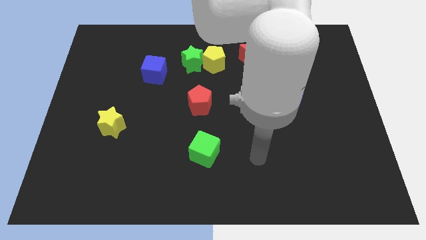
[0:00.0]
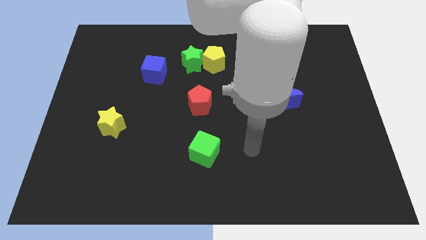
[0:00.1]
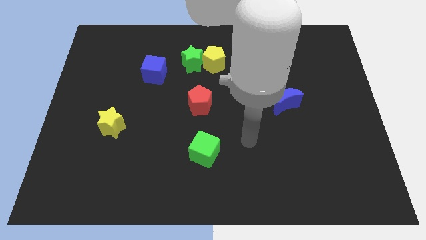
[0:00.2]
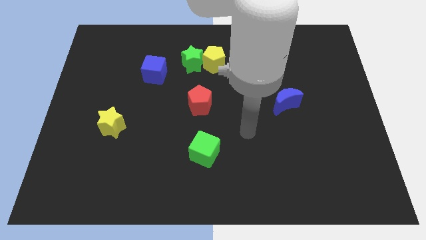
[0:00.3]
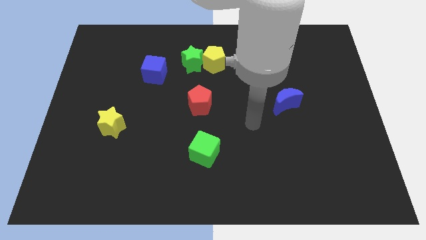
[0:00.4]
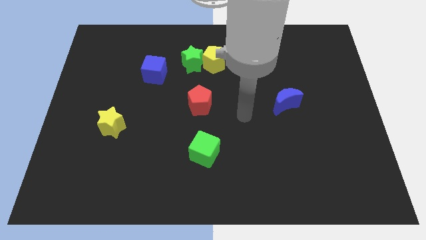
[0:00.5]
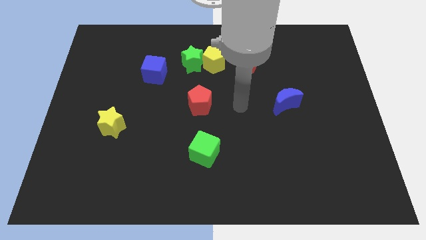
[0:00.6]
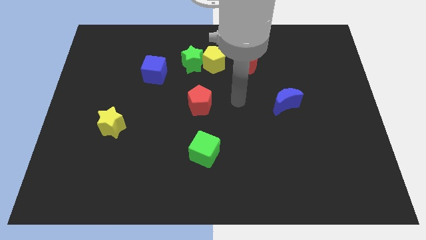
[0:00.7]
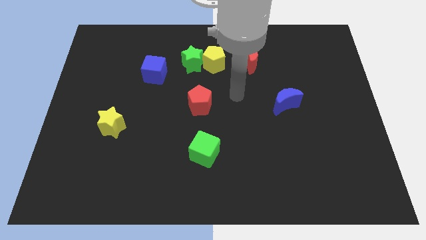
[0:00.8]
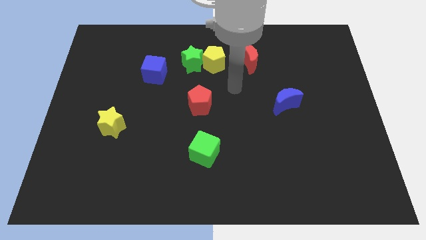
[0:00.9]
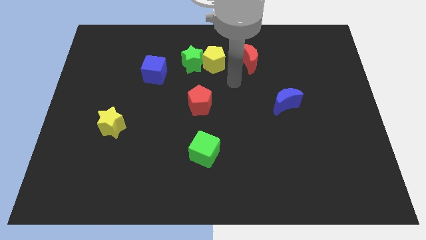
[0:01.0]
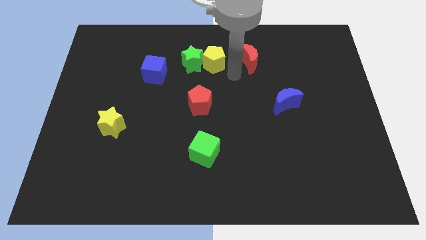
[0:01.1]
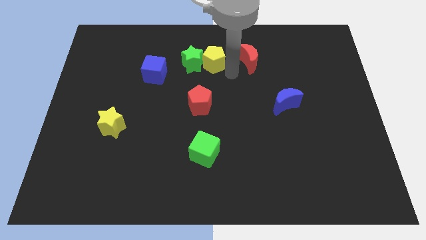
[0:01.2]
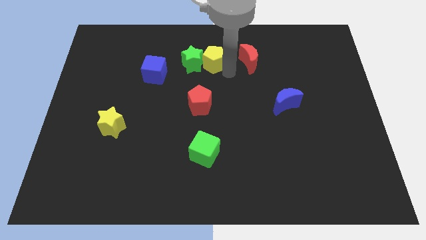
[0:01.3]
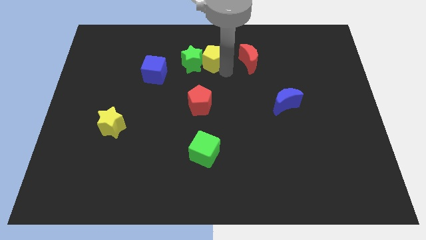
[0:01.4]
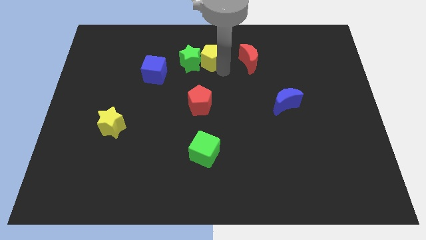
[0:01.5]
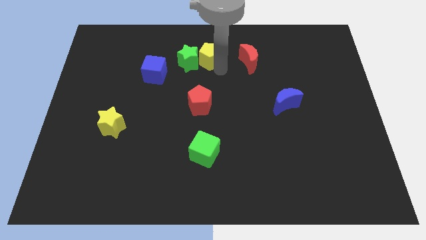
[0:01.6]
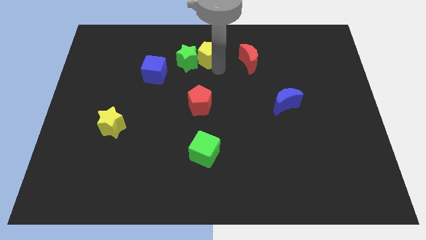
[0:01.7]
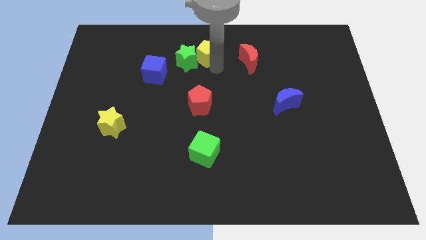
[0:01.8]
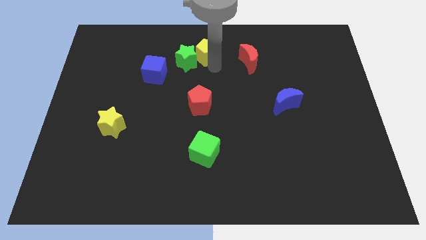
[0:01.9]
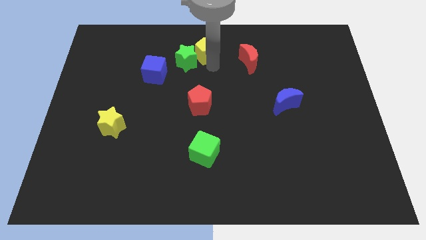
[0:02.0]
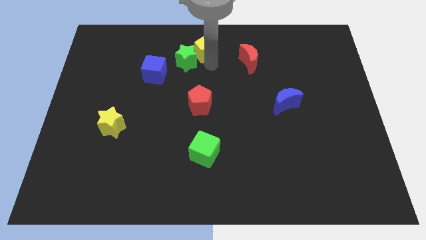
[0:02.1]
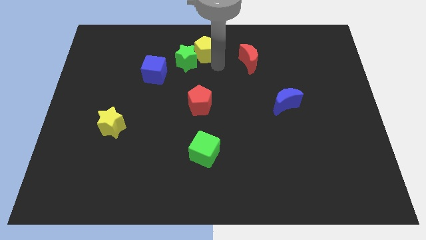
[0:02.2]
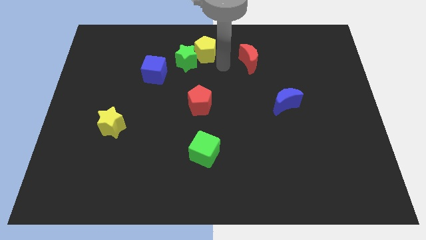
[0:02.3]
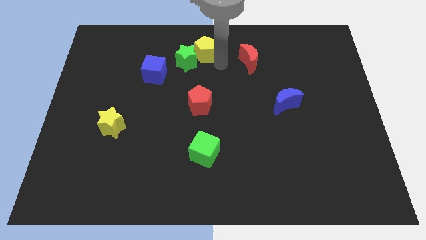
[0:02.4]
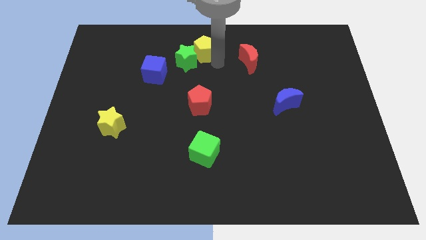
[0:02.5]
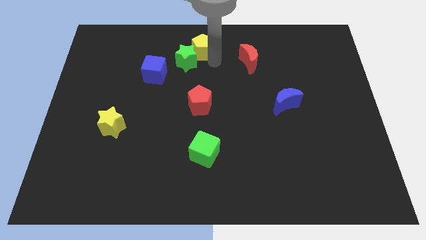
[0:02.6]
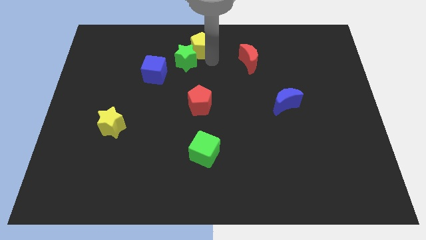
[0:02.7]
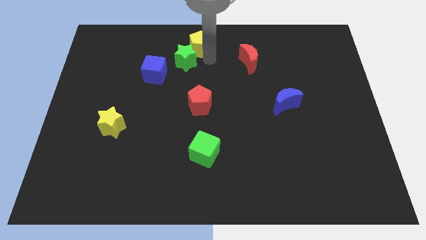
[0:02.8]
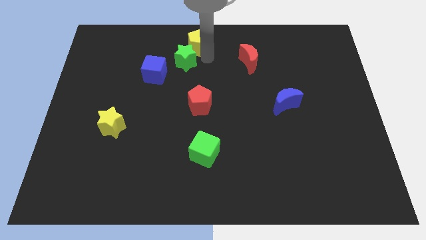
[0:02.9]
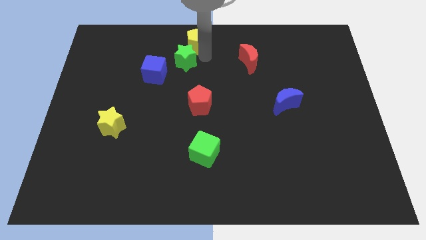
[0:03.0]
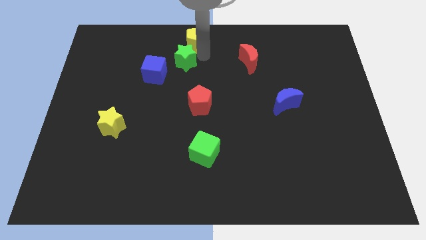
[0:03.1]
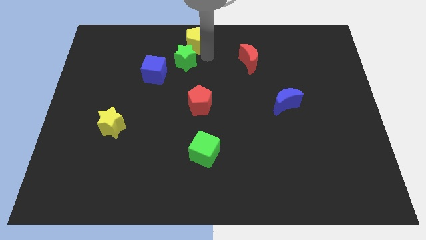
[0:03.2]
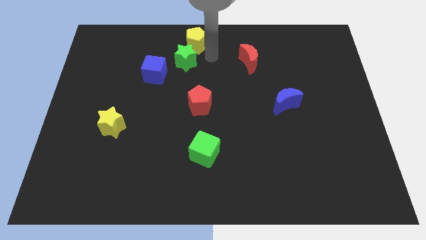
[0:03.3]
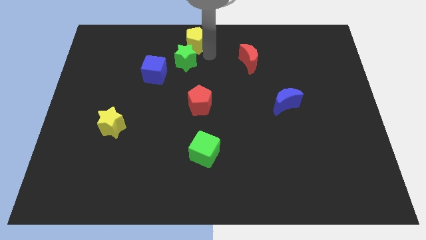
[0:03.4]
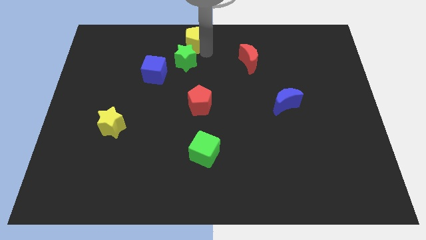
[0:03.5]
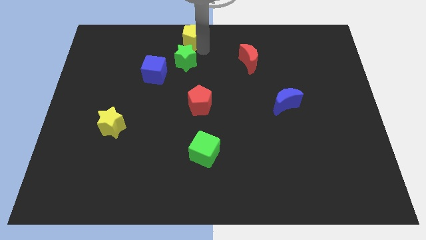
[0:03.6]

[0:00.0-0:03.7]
pull the yellow pentagon apart from the green star and red moon

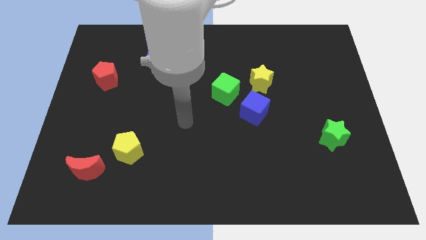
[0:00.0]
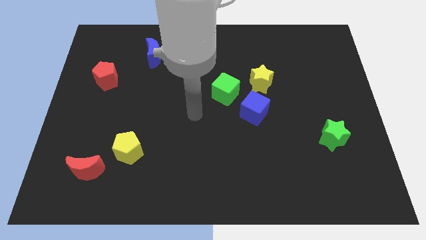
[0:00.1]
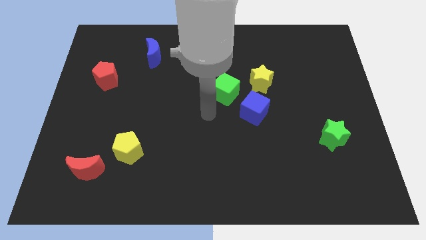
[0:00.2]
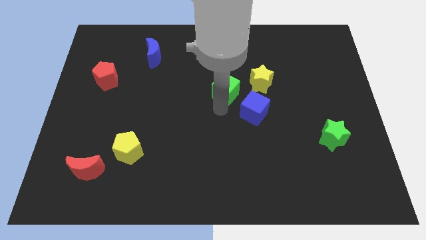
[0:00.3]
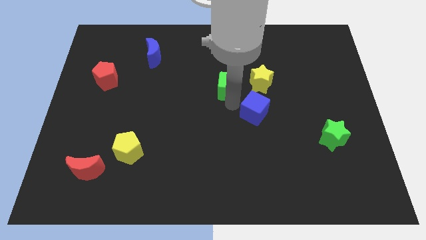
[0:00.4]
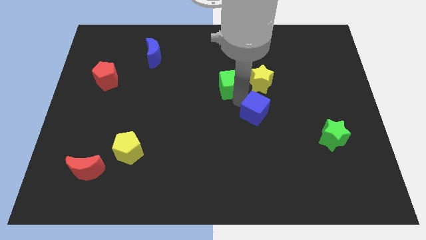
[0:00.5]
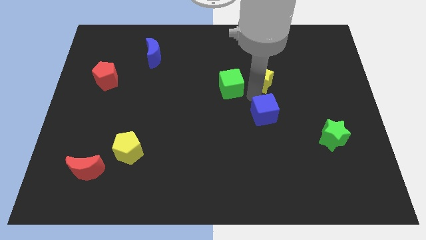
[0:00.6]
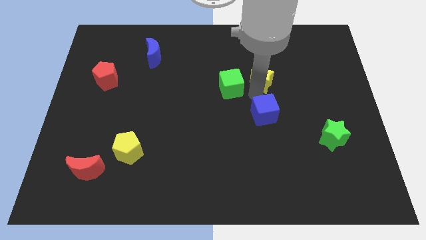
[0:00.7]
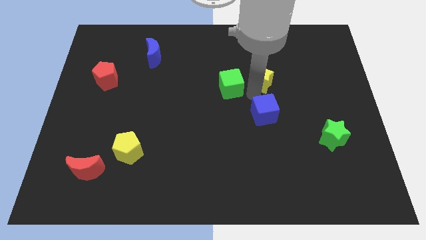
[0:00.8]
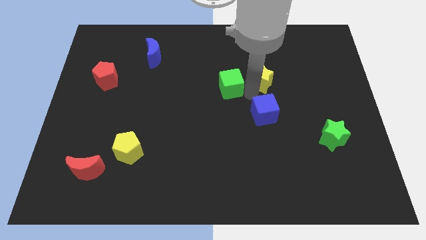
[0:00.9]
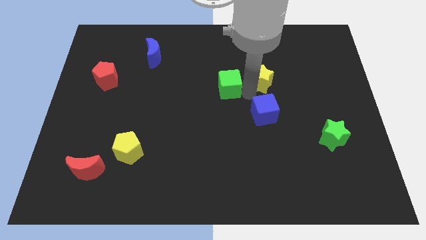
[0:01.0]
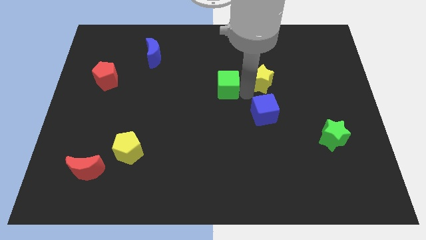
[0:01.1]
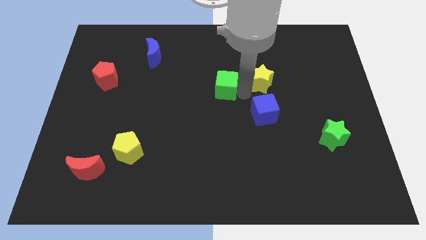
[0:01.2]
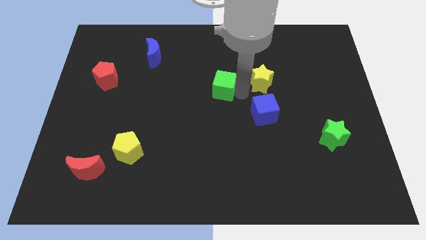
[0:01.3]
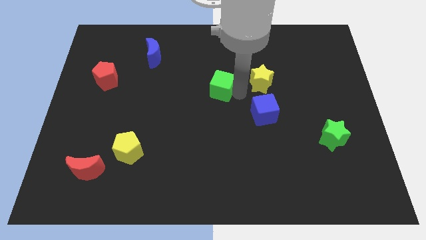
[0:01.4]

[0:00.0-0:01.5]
move the green cube away from the blue cube and yellow star

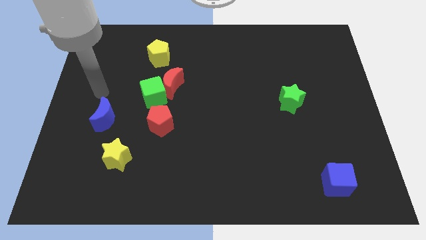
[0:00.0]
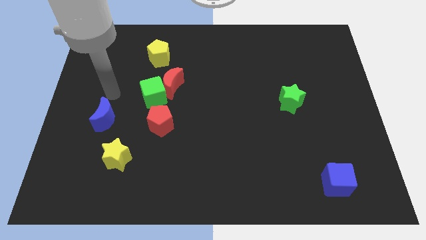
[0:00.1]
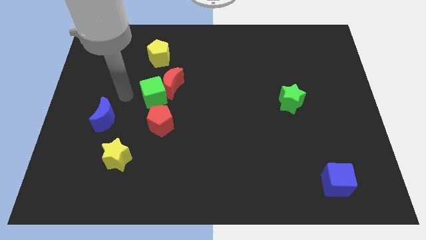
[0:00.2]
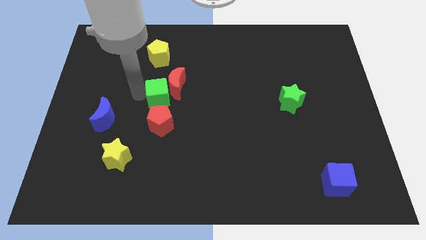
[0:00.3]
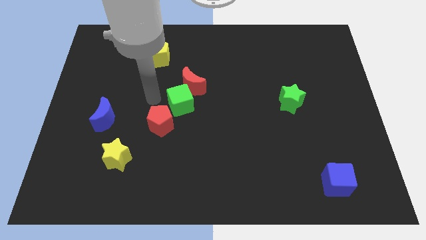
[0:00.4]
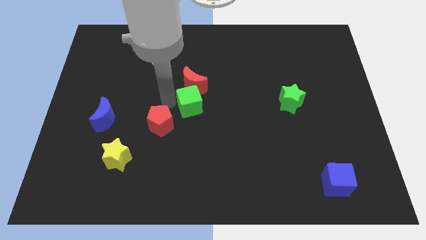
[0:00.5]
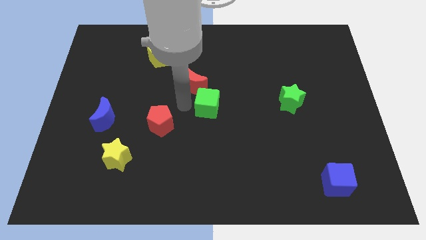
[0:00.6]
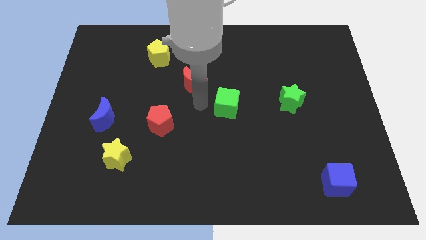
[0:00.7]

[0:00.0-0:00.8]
move the red moon away from the green cube

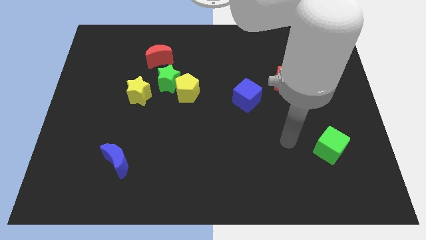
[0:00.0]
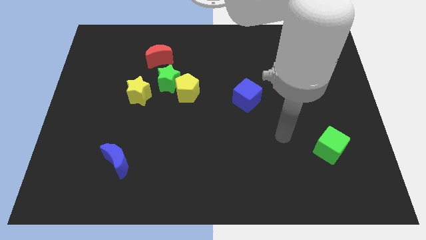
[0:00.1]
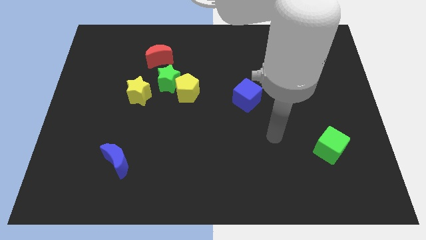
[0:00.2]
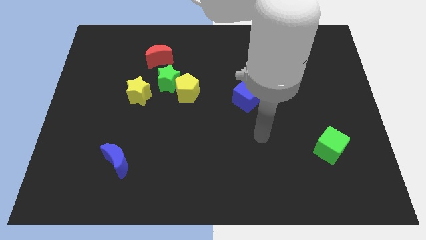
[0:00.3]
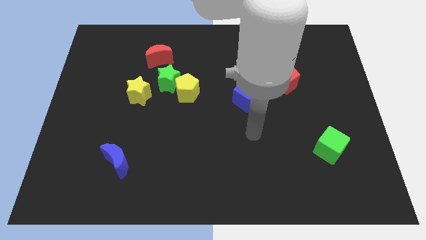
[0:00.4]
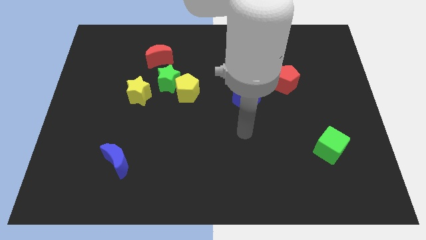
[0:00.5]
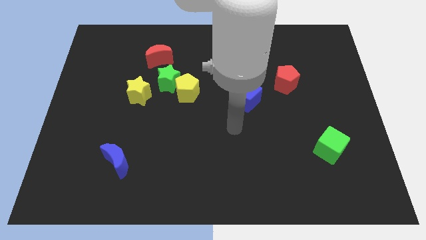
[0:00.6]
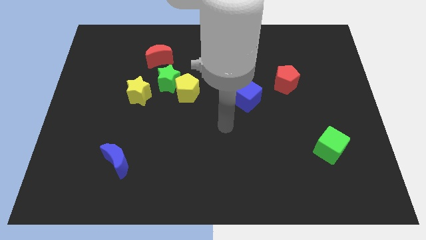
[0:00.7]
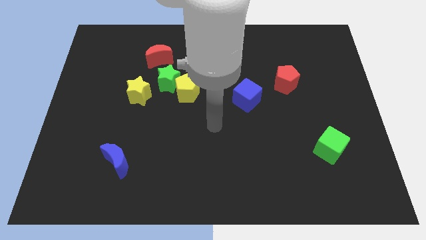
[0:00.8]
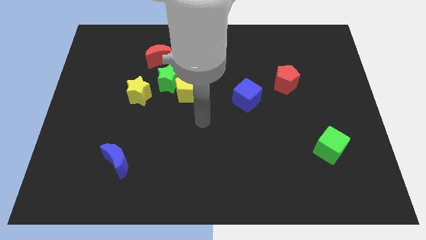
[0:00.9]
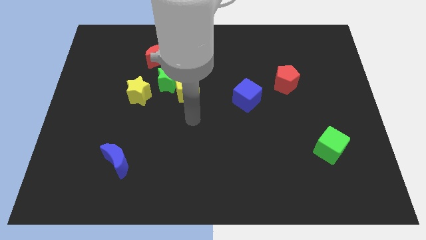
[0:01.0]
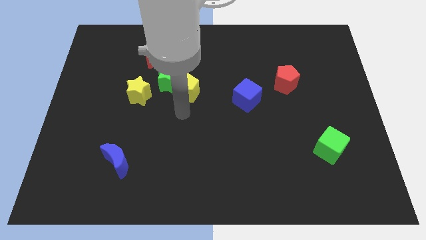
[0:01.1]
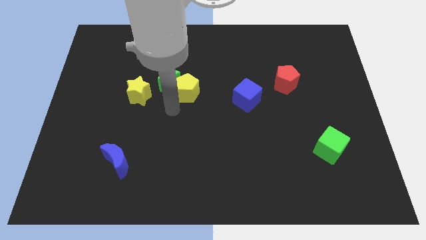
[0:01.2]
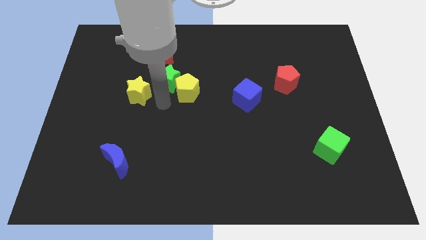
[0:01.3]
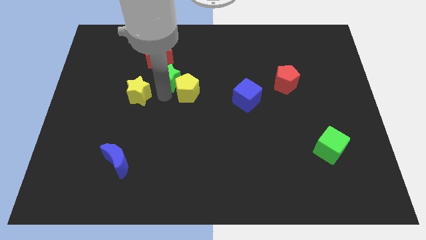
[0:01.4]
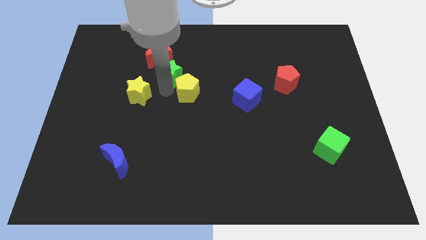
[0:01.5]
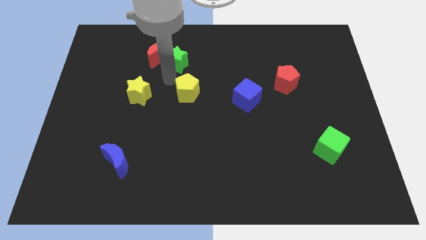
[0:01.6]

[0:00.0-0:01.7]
move the yellow pentagon away from the green star

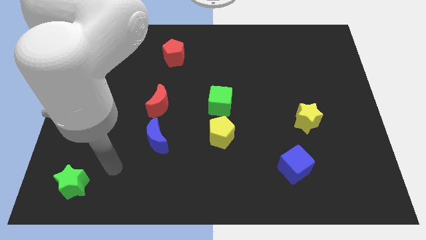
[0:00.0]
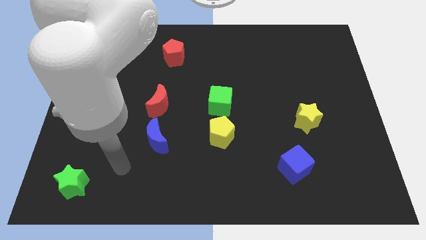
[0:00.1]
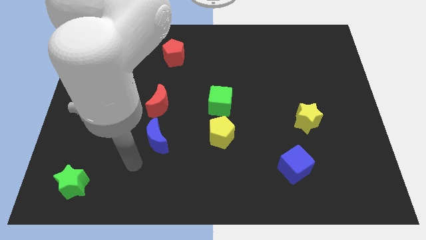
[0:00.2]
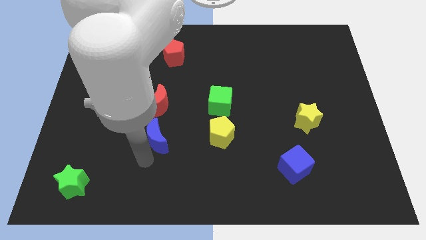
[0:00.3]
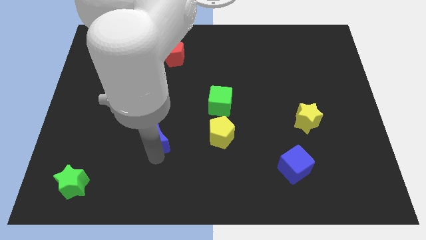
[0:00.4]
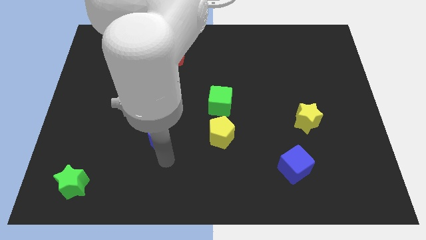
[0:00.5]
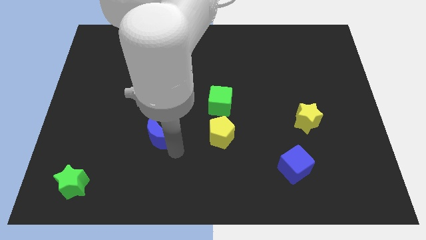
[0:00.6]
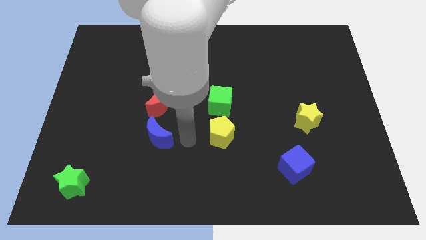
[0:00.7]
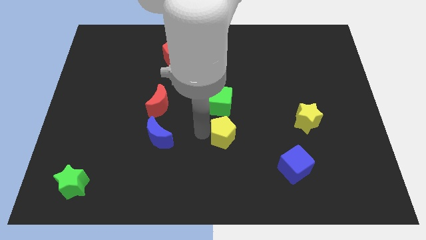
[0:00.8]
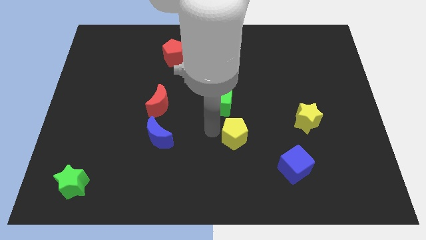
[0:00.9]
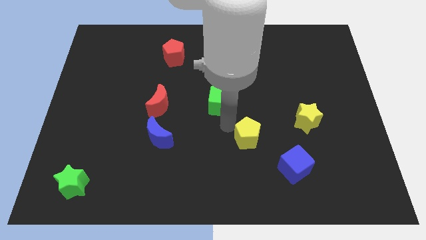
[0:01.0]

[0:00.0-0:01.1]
separate the green cube from the yellow pentagon

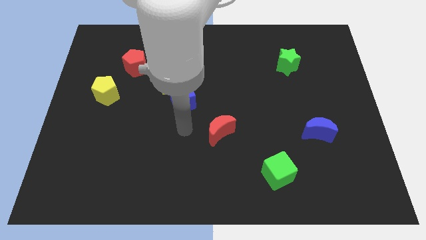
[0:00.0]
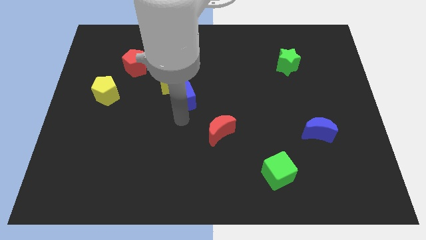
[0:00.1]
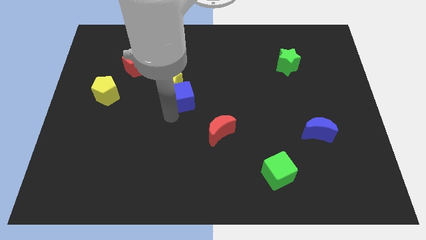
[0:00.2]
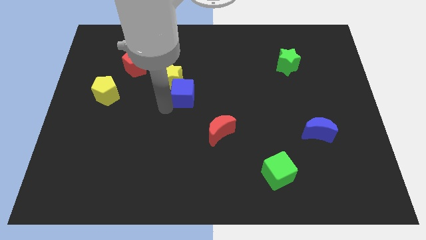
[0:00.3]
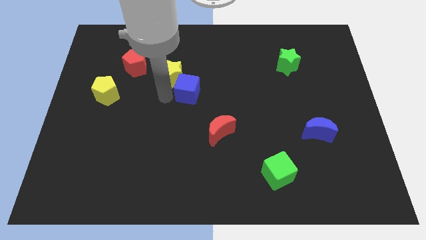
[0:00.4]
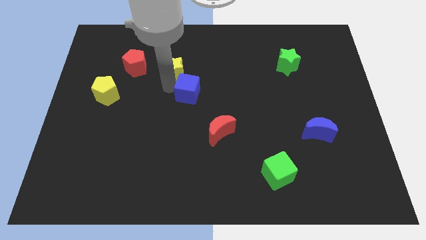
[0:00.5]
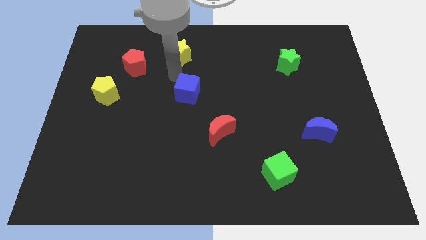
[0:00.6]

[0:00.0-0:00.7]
move the blue cube away from the yellow star
